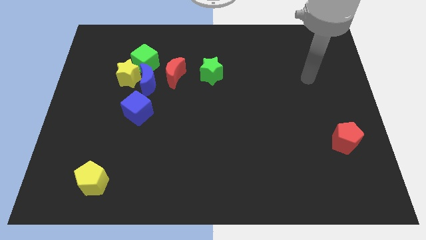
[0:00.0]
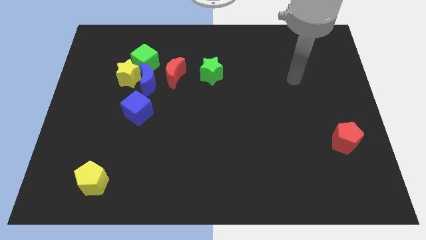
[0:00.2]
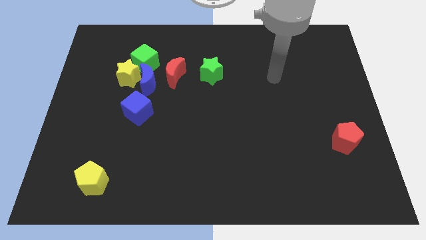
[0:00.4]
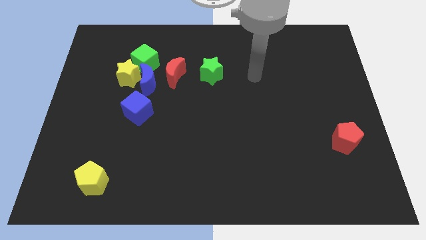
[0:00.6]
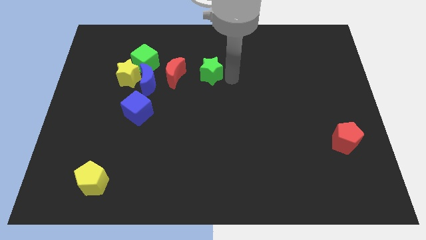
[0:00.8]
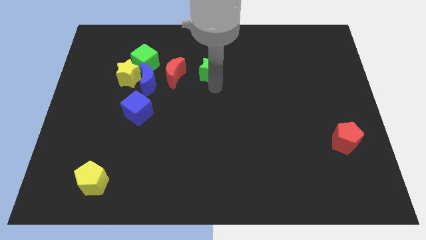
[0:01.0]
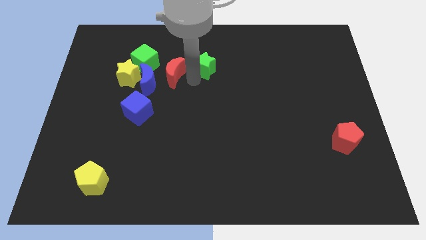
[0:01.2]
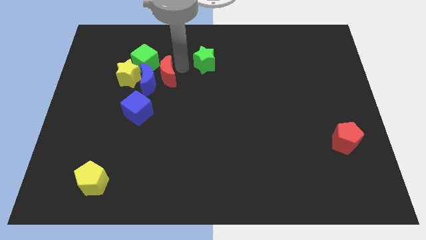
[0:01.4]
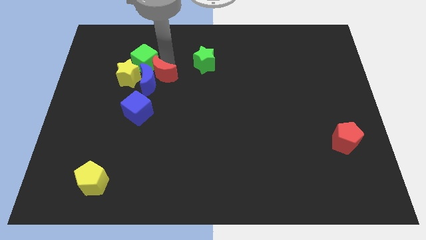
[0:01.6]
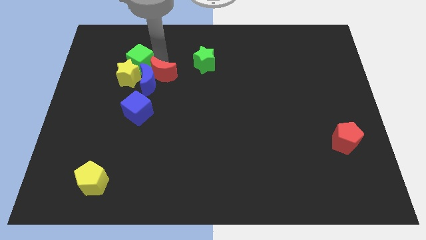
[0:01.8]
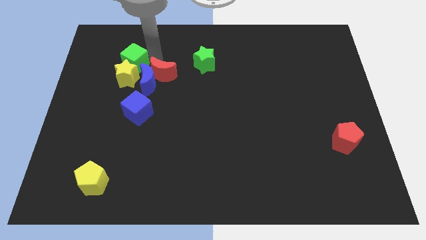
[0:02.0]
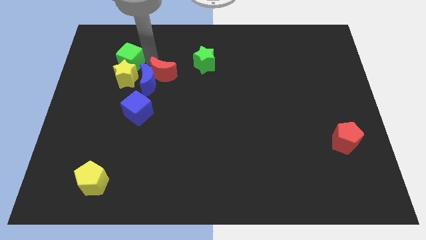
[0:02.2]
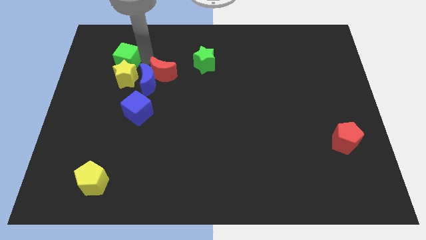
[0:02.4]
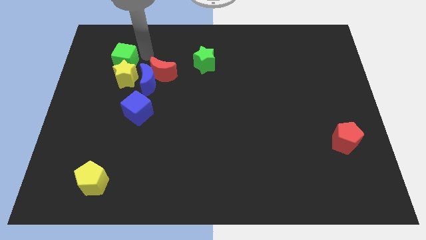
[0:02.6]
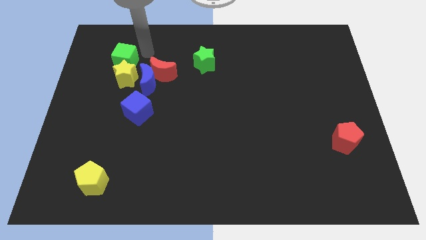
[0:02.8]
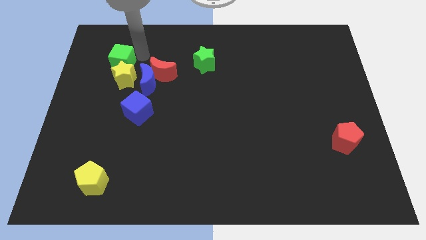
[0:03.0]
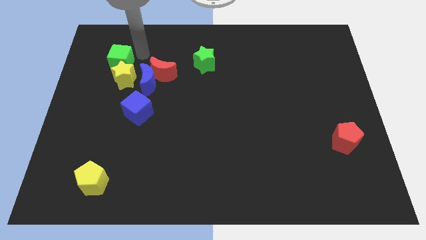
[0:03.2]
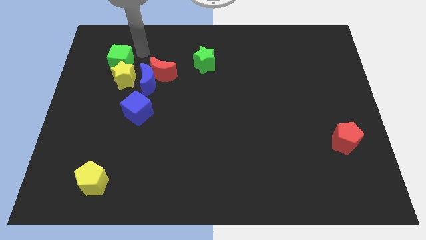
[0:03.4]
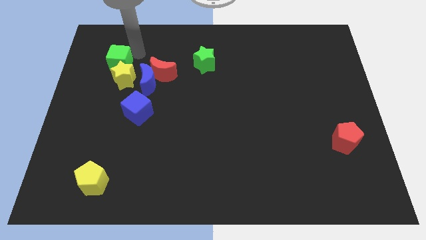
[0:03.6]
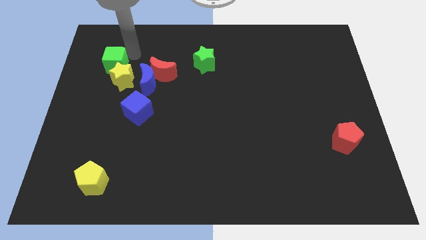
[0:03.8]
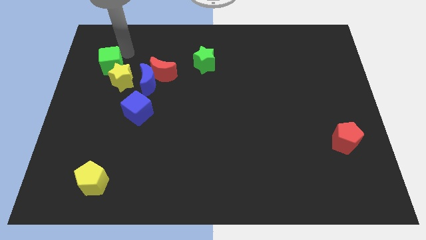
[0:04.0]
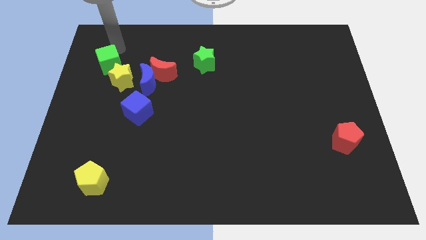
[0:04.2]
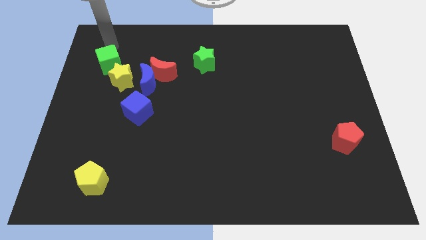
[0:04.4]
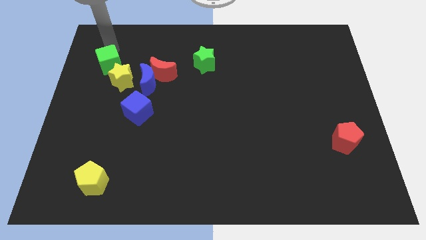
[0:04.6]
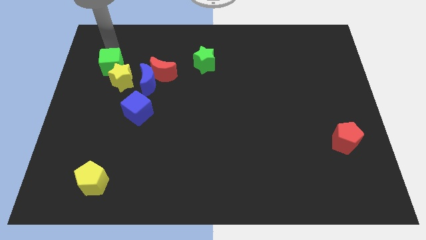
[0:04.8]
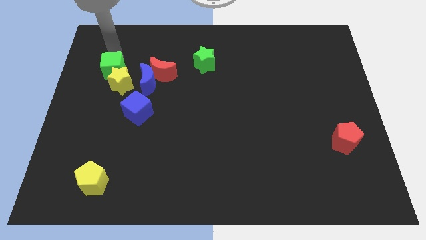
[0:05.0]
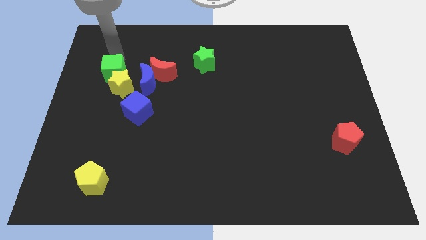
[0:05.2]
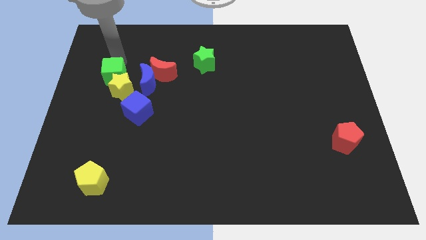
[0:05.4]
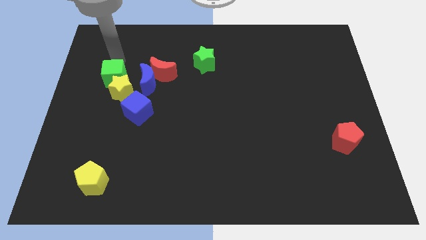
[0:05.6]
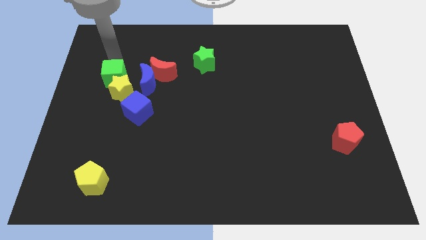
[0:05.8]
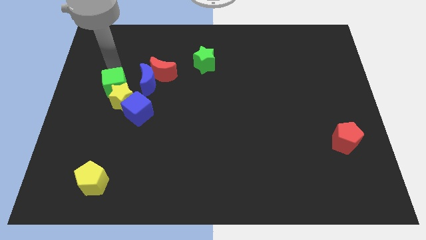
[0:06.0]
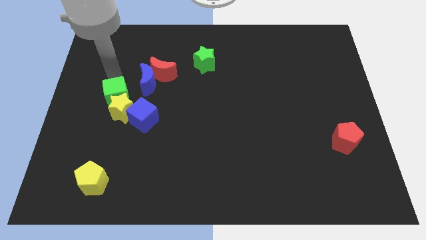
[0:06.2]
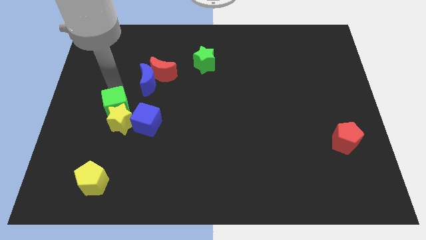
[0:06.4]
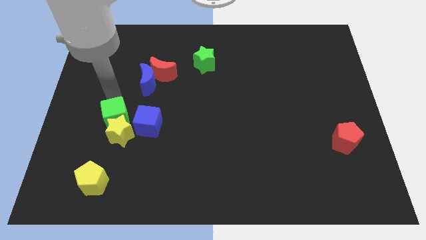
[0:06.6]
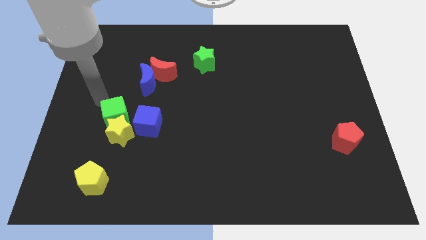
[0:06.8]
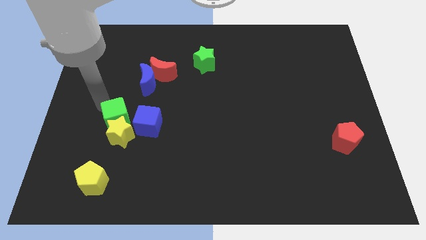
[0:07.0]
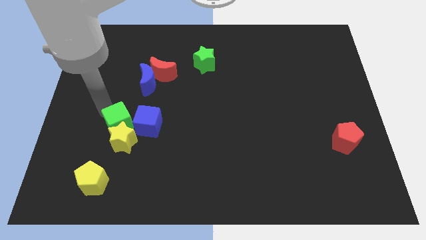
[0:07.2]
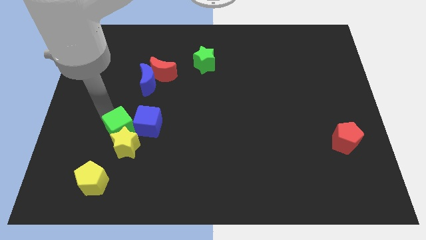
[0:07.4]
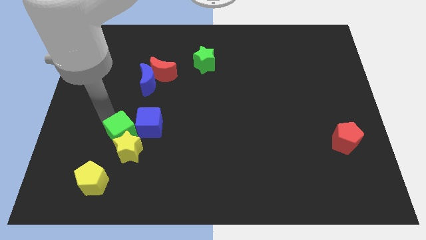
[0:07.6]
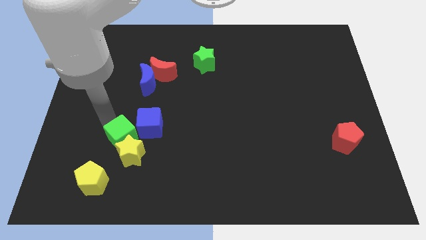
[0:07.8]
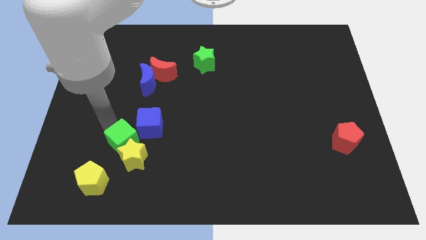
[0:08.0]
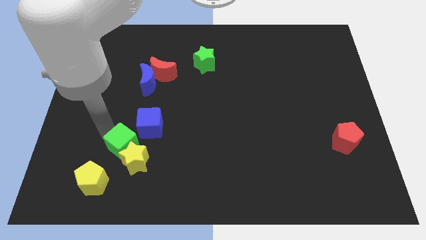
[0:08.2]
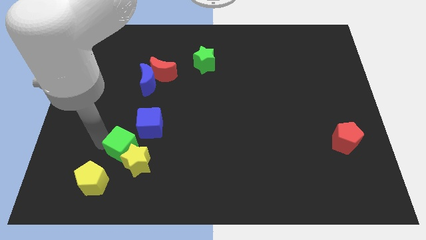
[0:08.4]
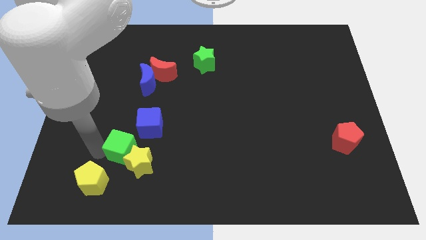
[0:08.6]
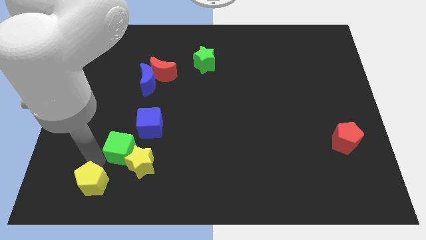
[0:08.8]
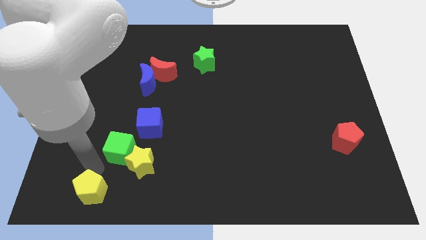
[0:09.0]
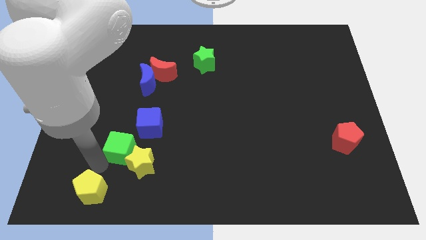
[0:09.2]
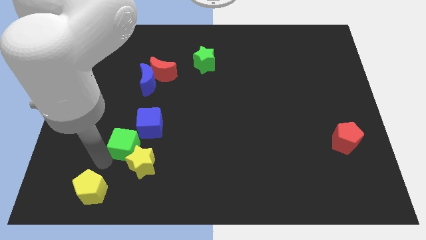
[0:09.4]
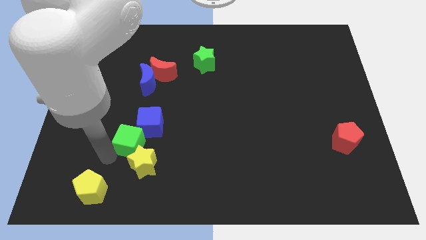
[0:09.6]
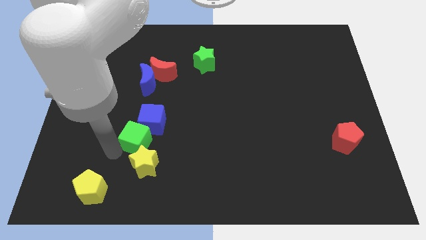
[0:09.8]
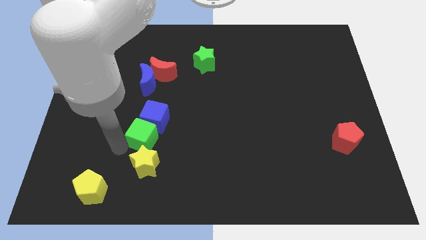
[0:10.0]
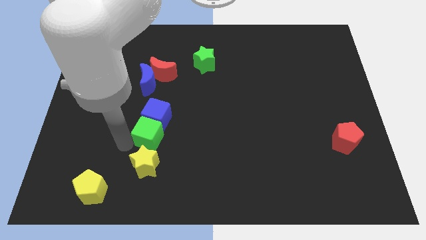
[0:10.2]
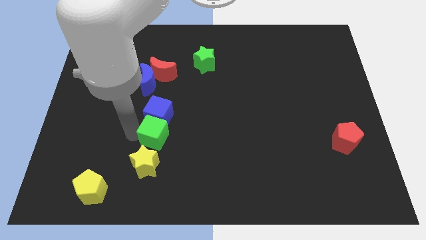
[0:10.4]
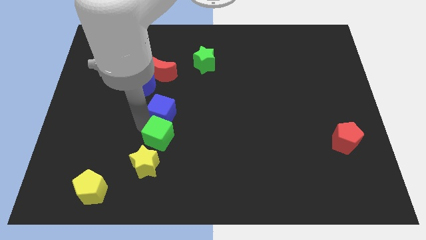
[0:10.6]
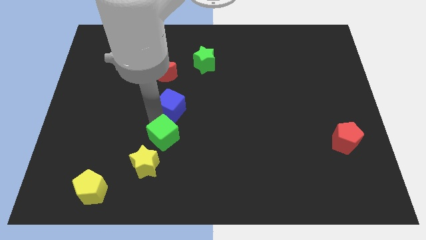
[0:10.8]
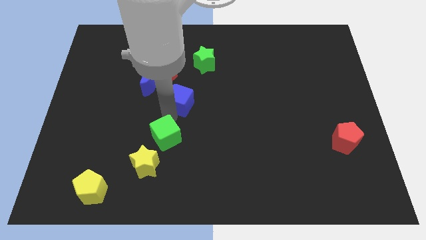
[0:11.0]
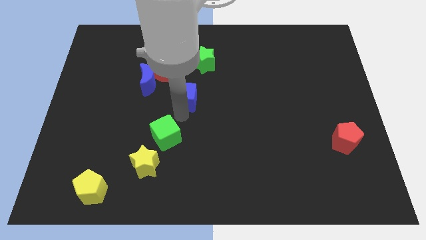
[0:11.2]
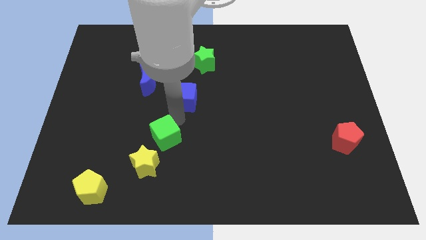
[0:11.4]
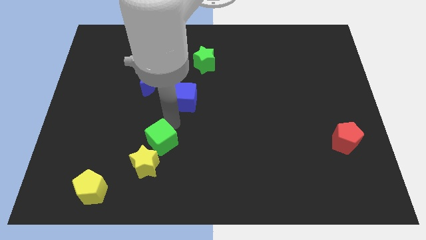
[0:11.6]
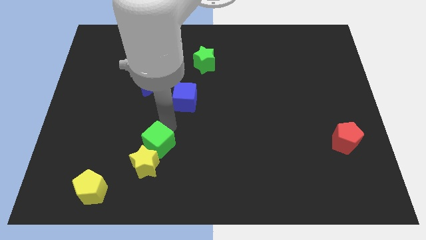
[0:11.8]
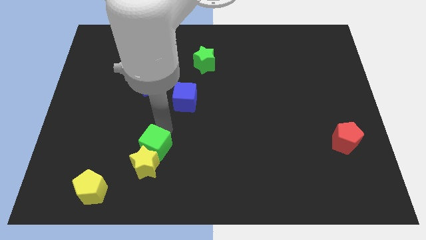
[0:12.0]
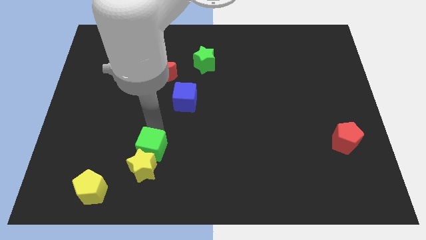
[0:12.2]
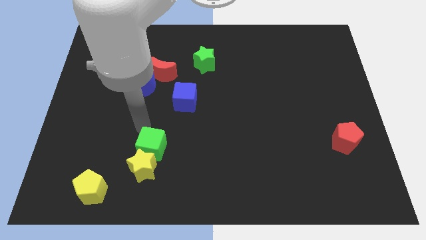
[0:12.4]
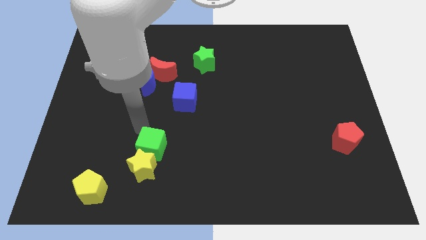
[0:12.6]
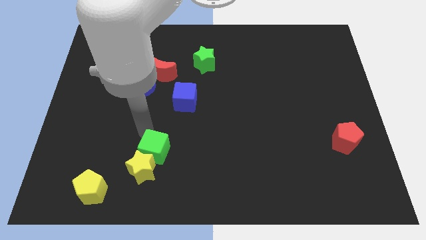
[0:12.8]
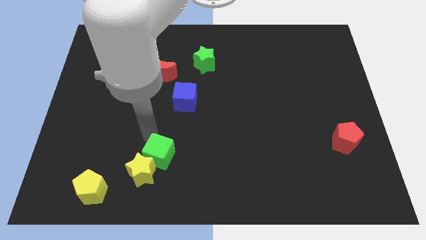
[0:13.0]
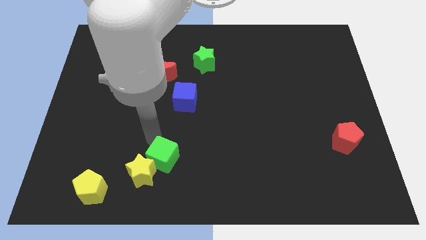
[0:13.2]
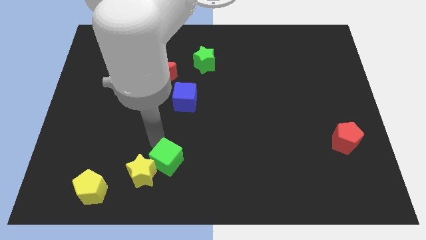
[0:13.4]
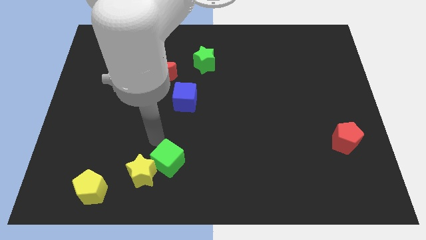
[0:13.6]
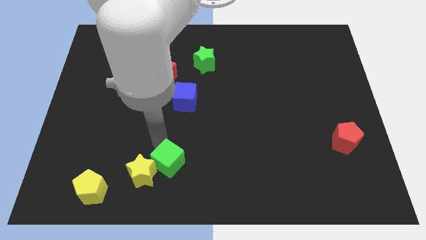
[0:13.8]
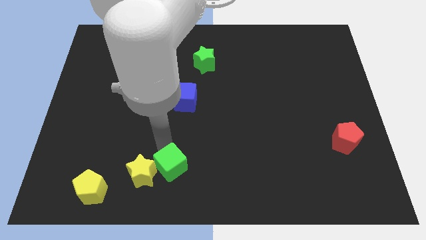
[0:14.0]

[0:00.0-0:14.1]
slide the green cube to the bottom side

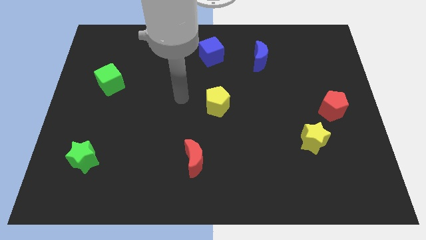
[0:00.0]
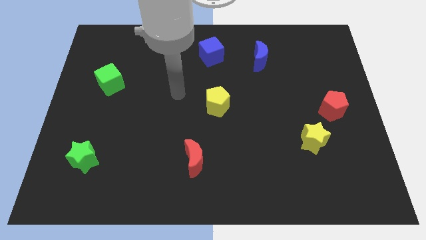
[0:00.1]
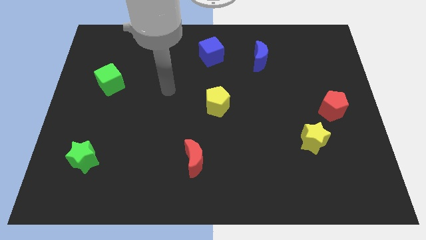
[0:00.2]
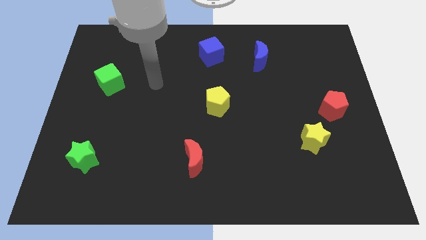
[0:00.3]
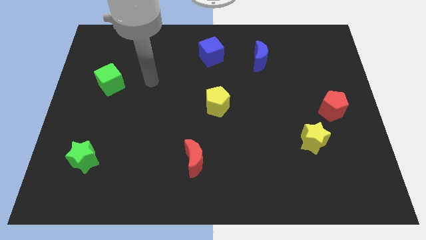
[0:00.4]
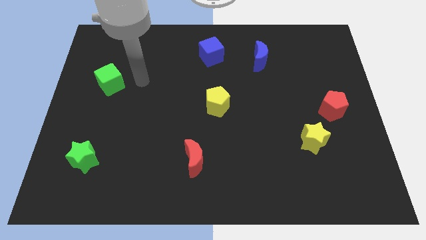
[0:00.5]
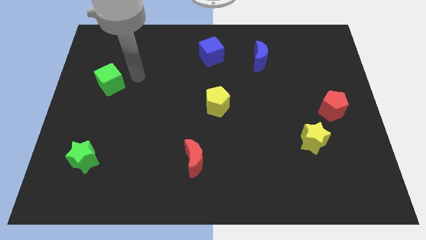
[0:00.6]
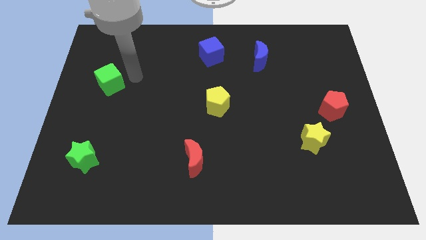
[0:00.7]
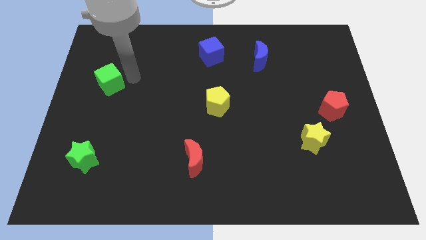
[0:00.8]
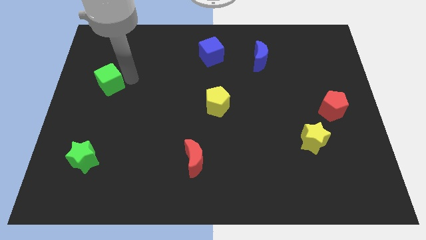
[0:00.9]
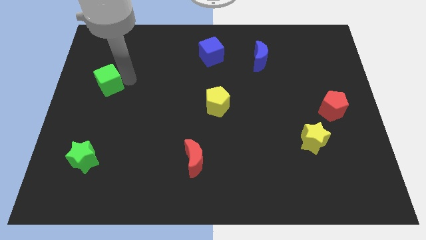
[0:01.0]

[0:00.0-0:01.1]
push the green cube to the center left
